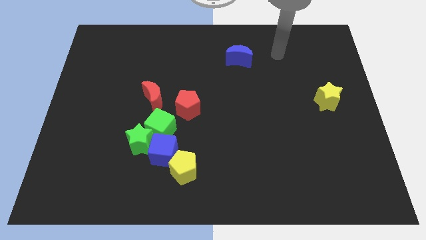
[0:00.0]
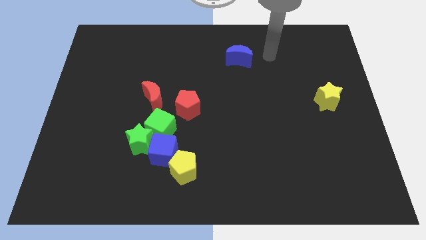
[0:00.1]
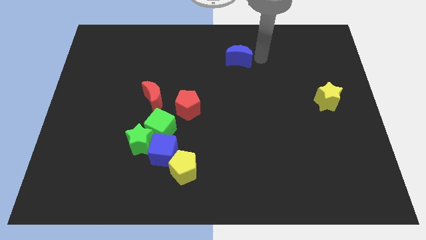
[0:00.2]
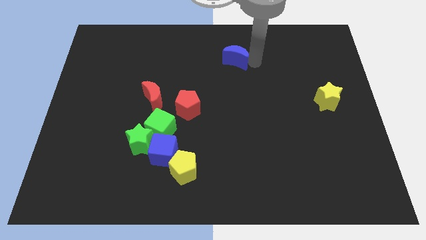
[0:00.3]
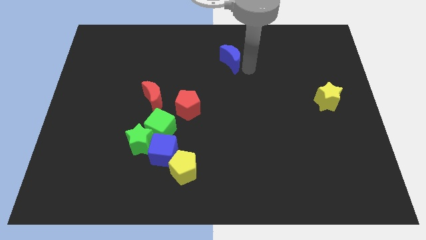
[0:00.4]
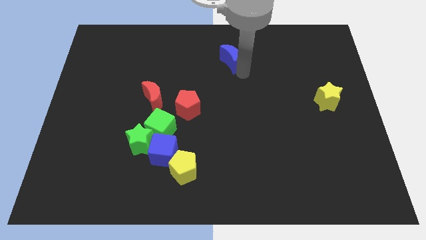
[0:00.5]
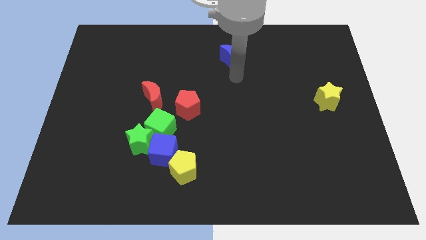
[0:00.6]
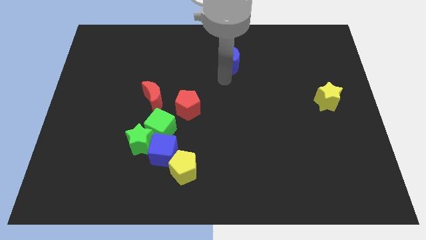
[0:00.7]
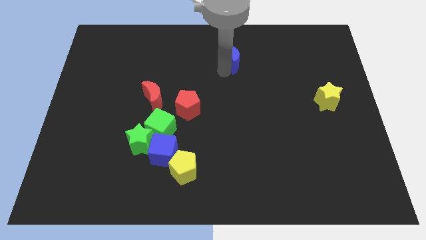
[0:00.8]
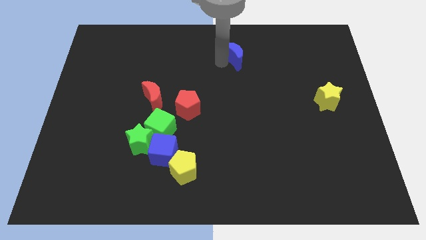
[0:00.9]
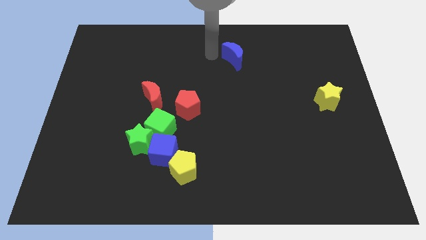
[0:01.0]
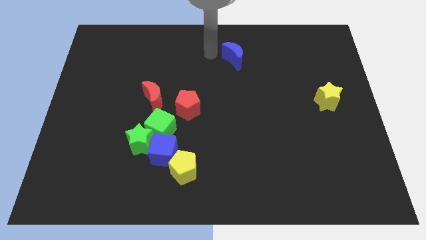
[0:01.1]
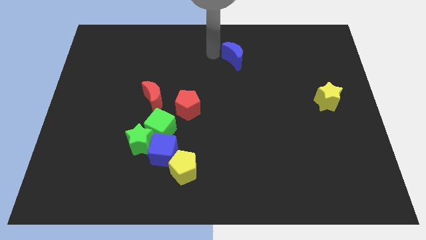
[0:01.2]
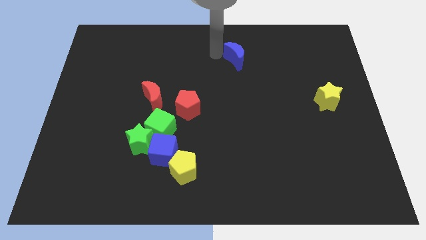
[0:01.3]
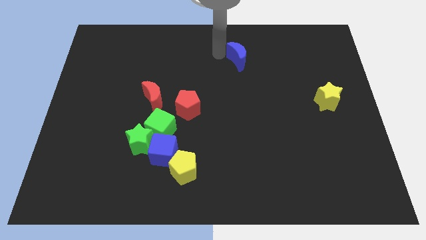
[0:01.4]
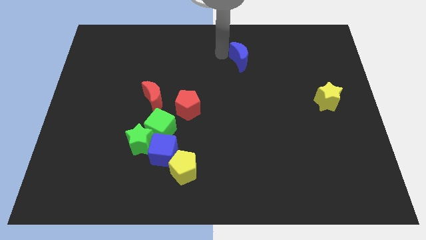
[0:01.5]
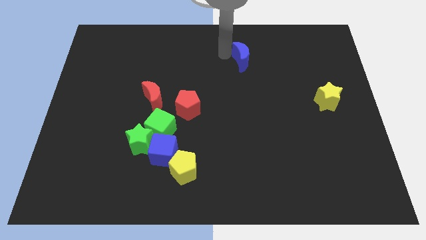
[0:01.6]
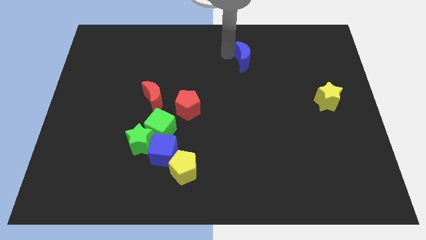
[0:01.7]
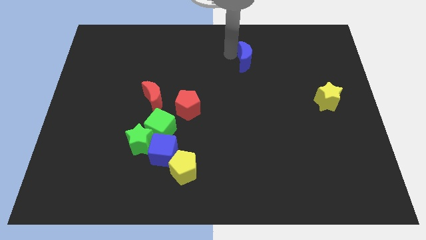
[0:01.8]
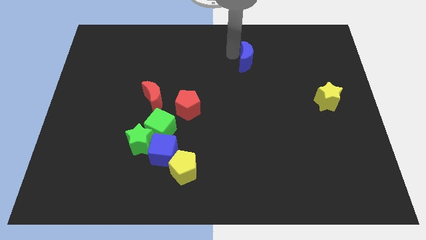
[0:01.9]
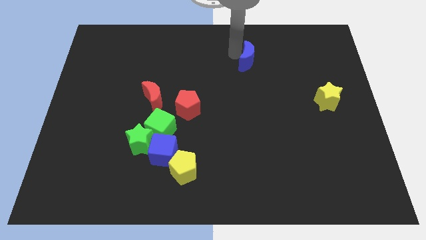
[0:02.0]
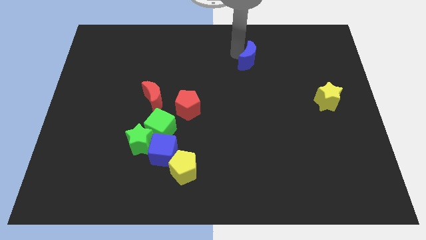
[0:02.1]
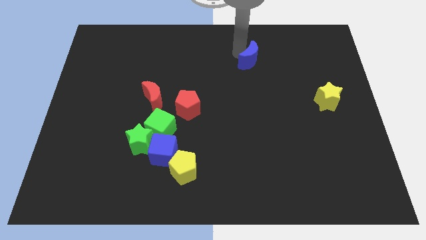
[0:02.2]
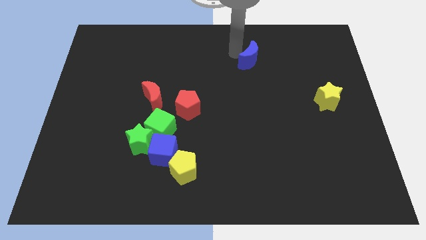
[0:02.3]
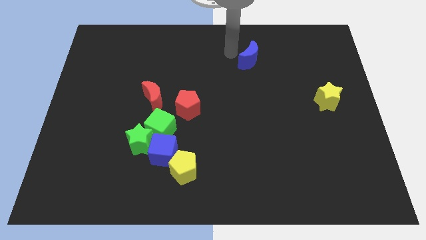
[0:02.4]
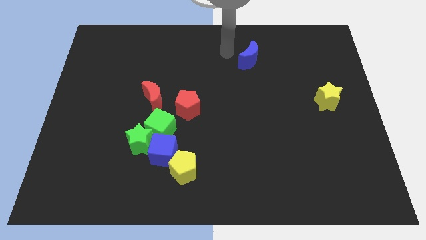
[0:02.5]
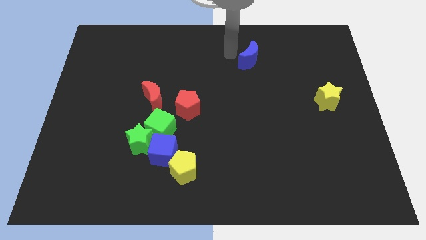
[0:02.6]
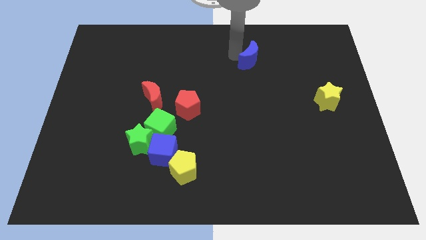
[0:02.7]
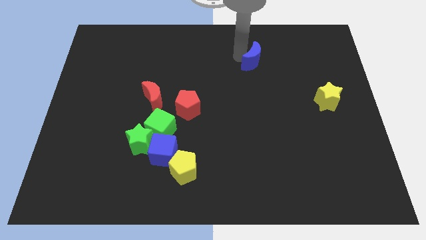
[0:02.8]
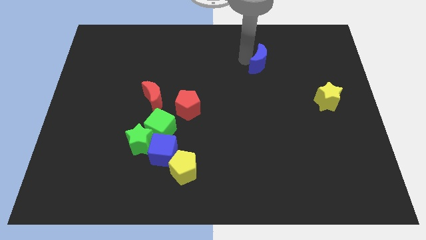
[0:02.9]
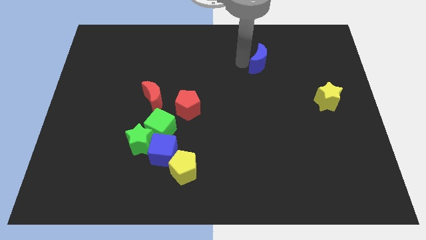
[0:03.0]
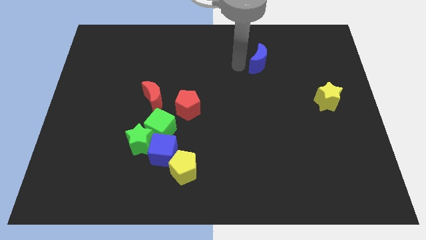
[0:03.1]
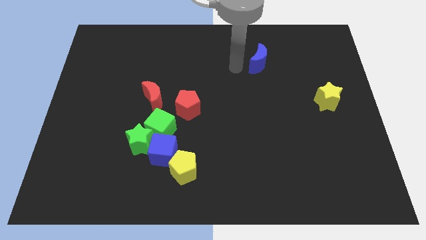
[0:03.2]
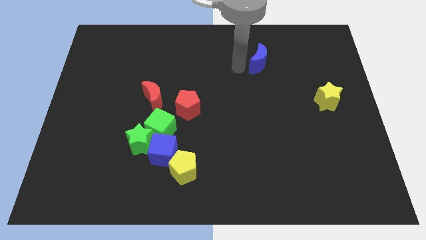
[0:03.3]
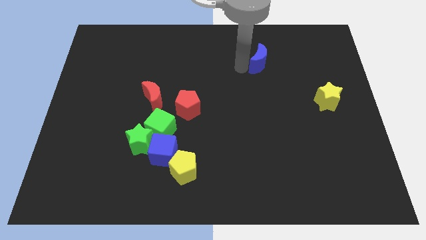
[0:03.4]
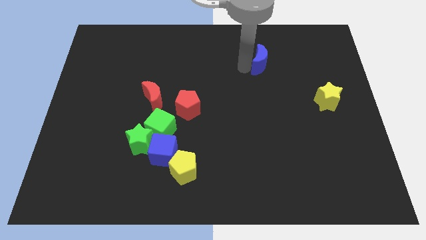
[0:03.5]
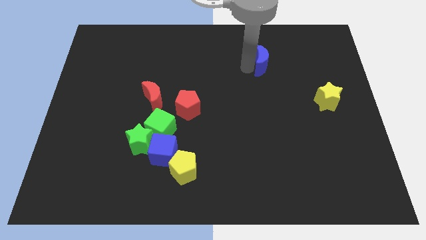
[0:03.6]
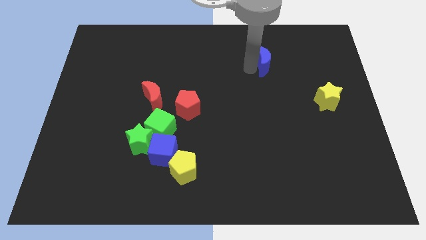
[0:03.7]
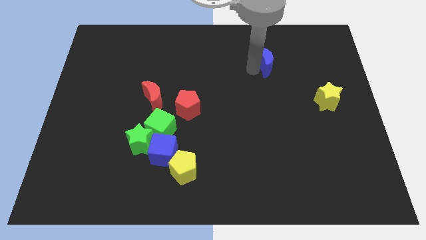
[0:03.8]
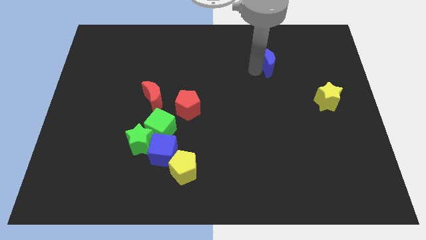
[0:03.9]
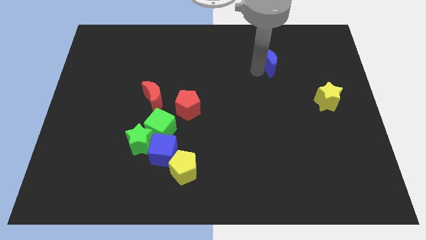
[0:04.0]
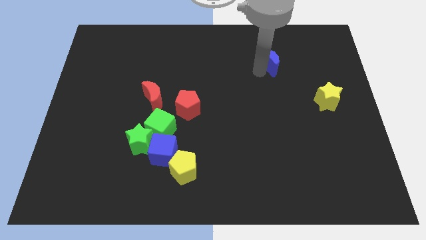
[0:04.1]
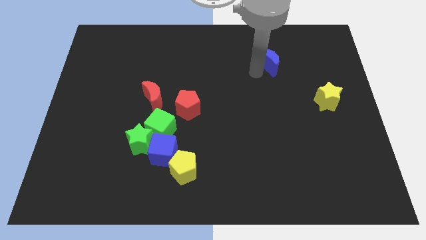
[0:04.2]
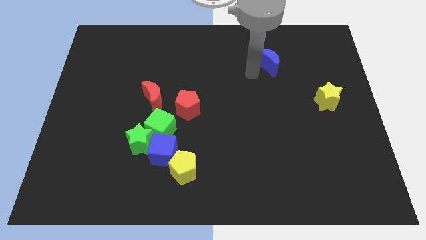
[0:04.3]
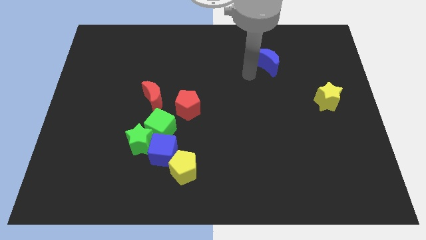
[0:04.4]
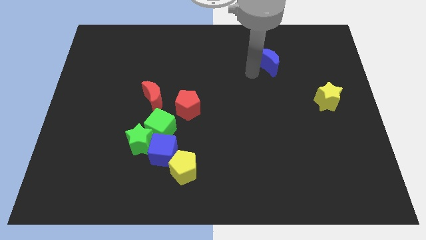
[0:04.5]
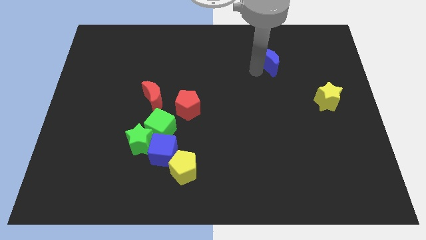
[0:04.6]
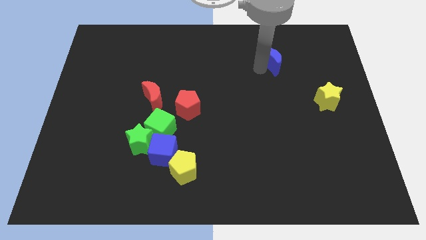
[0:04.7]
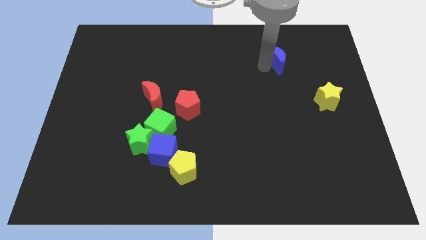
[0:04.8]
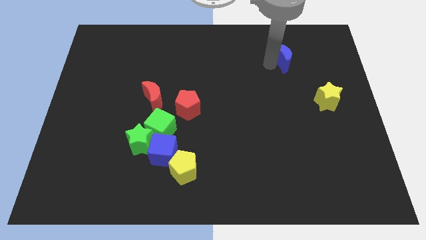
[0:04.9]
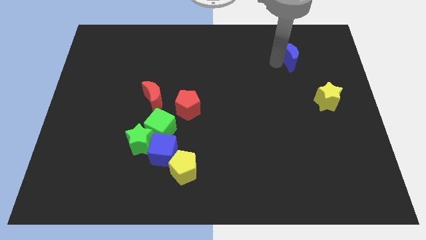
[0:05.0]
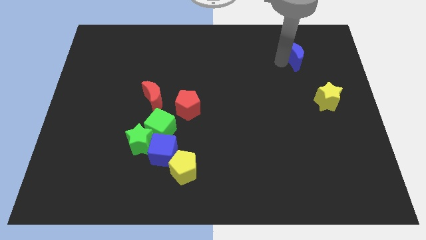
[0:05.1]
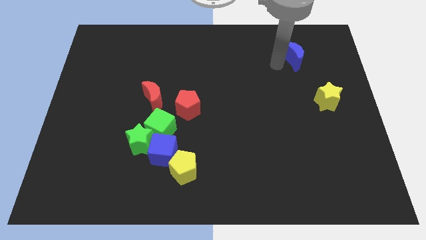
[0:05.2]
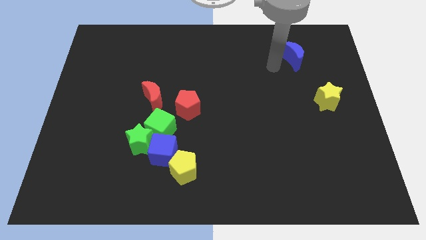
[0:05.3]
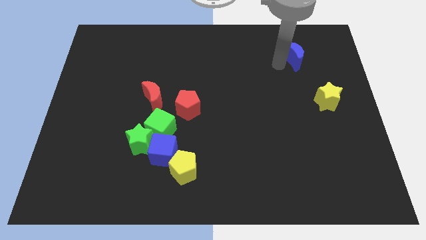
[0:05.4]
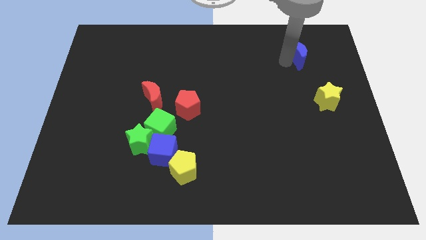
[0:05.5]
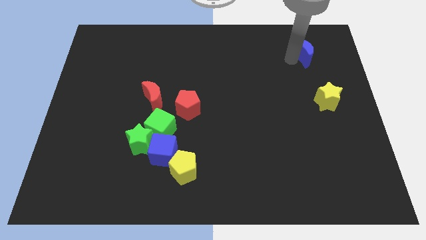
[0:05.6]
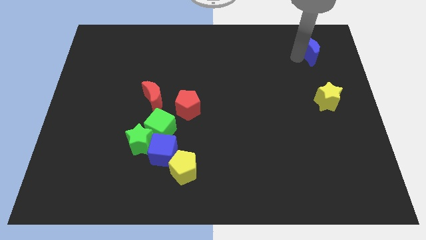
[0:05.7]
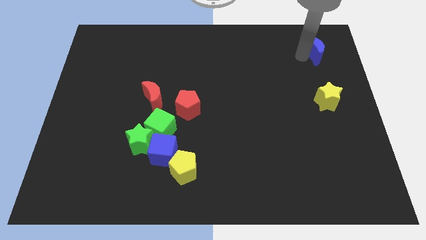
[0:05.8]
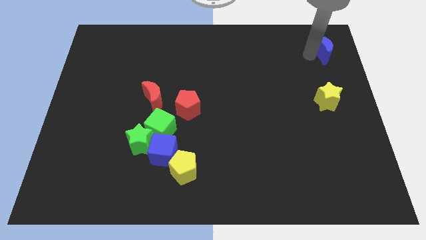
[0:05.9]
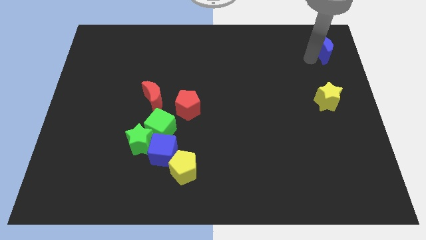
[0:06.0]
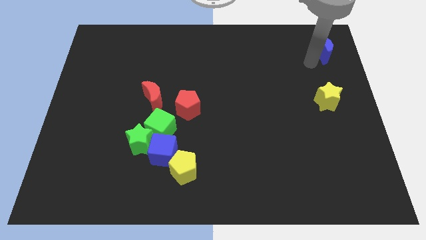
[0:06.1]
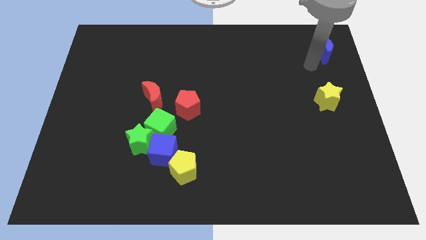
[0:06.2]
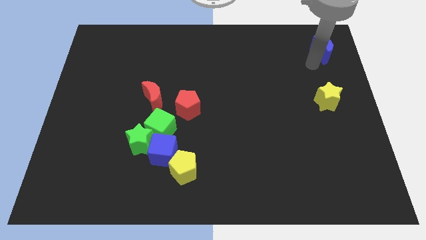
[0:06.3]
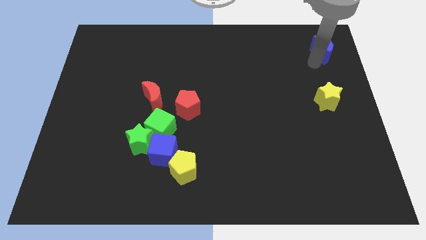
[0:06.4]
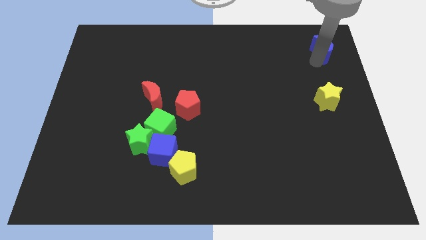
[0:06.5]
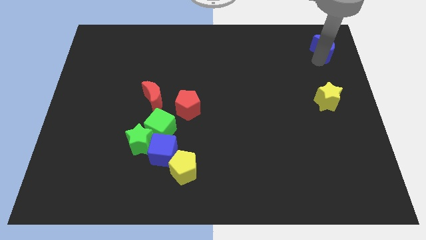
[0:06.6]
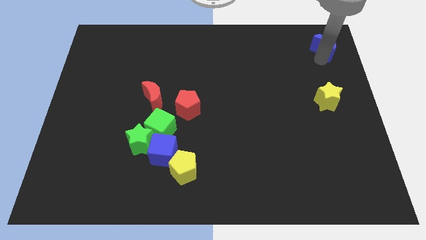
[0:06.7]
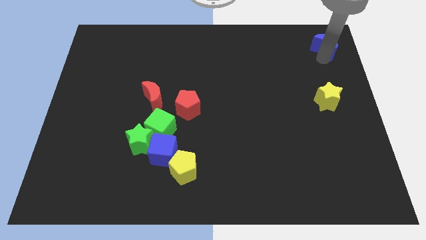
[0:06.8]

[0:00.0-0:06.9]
push the blue moon to the top right of the board
